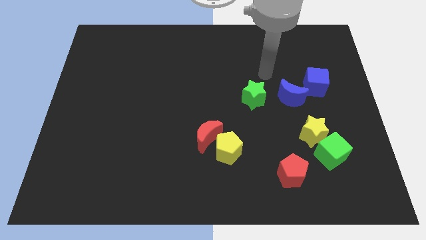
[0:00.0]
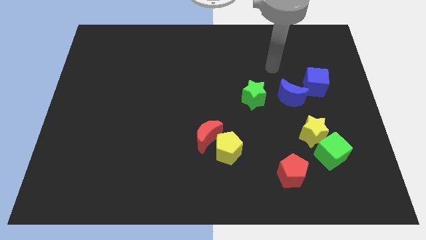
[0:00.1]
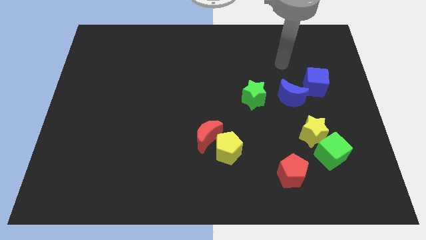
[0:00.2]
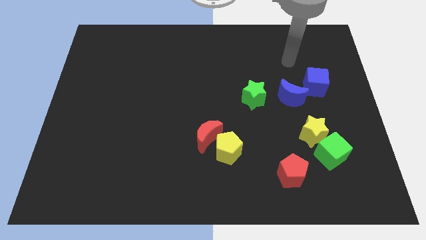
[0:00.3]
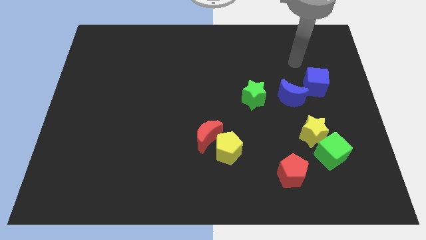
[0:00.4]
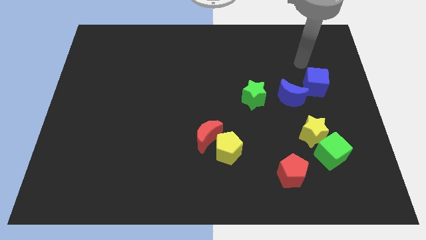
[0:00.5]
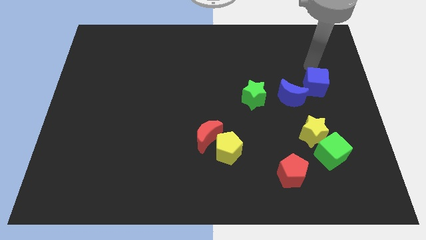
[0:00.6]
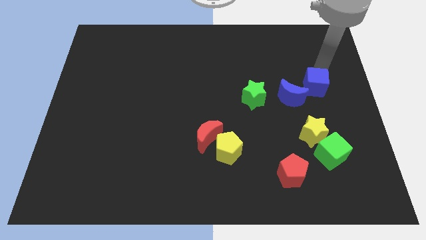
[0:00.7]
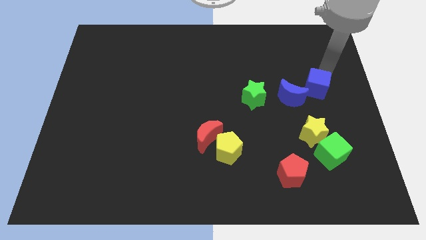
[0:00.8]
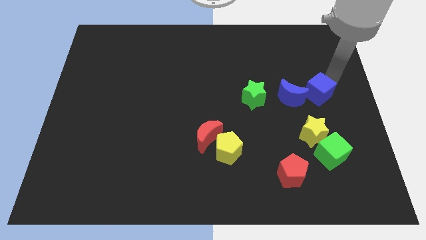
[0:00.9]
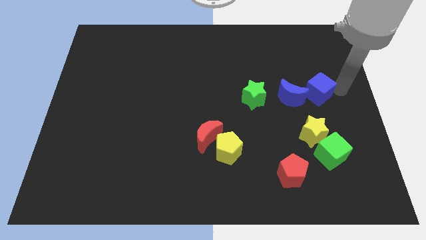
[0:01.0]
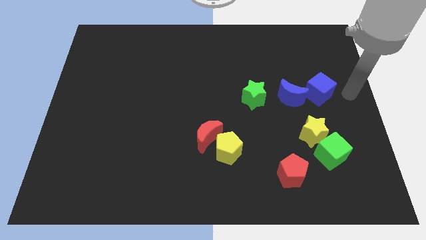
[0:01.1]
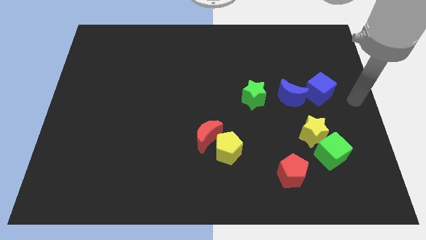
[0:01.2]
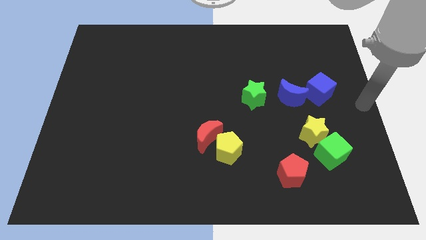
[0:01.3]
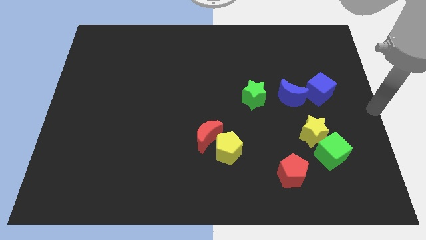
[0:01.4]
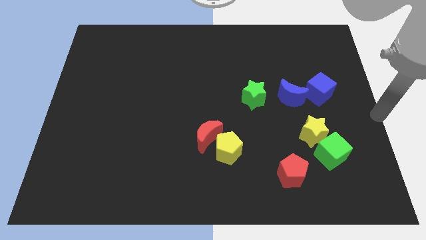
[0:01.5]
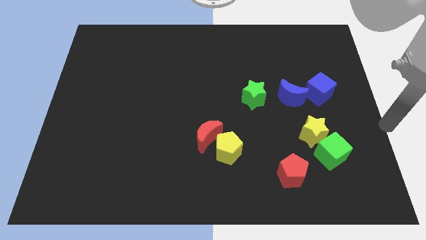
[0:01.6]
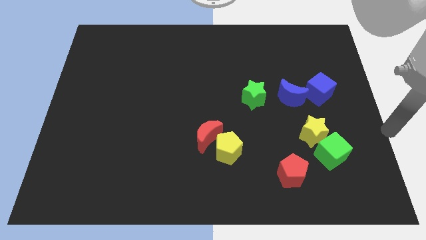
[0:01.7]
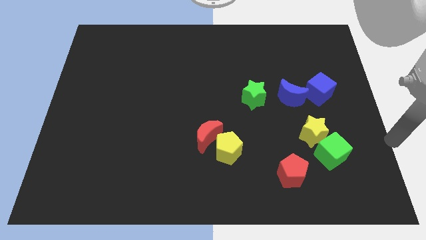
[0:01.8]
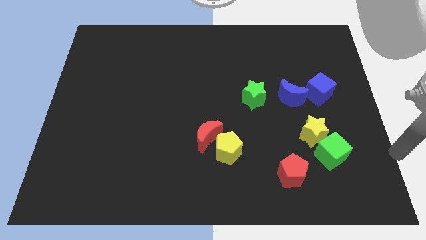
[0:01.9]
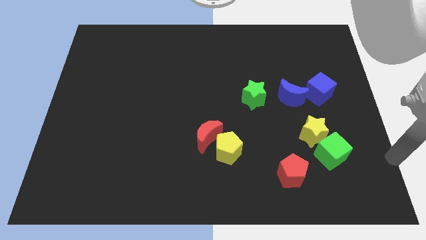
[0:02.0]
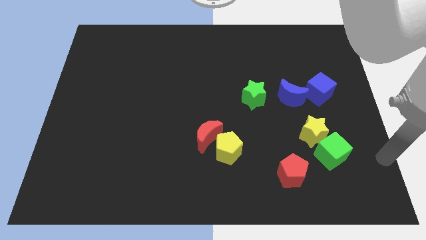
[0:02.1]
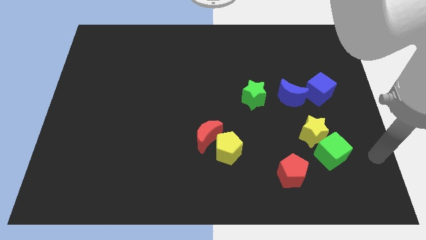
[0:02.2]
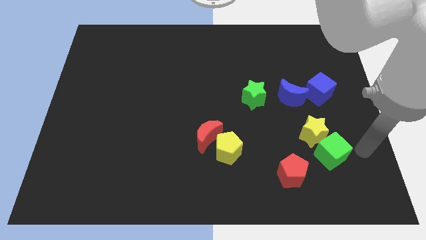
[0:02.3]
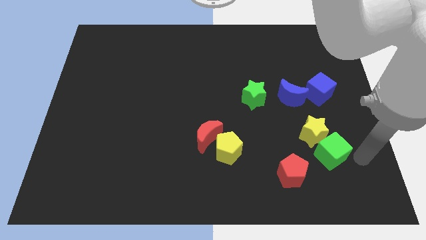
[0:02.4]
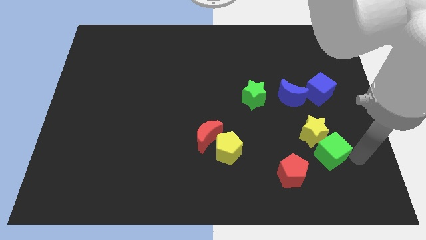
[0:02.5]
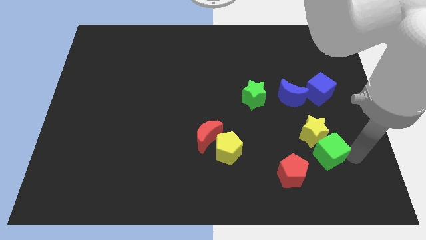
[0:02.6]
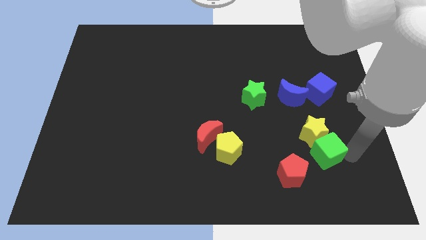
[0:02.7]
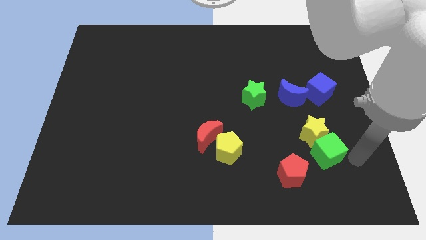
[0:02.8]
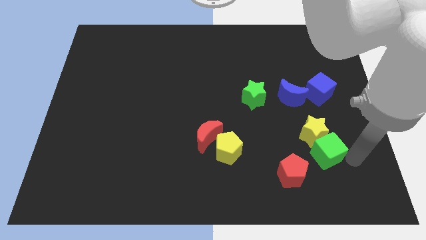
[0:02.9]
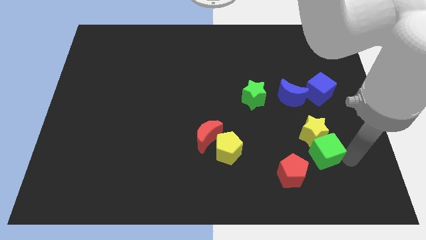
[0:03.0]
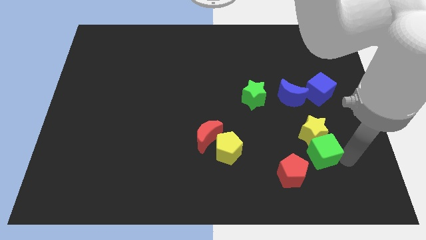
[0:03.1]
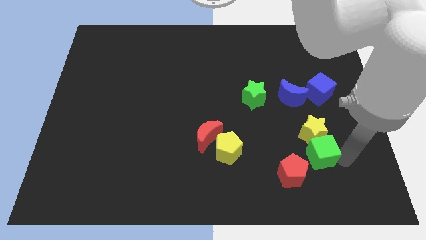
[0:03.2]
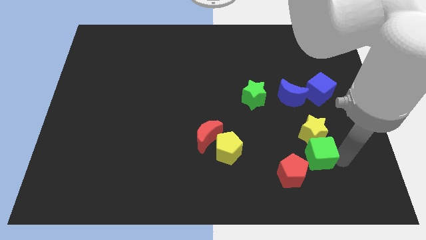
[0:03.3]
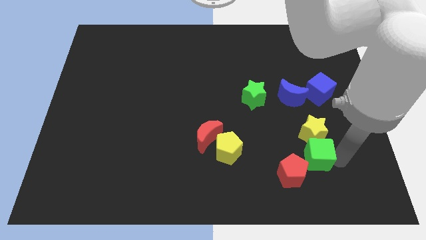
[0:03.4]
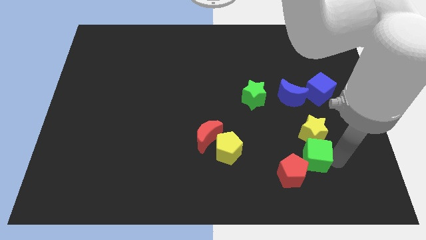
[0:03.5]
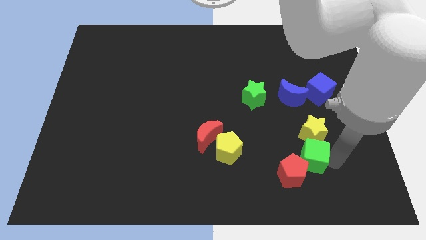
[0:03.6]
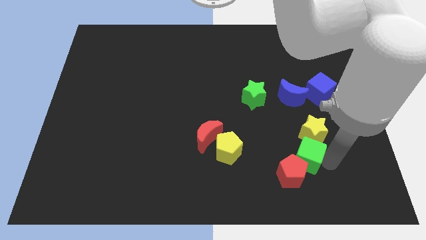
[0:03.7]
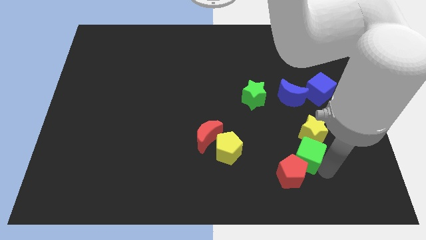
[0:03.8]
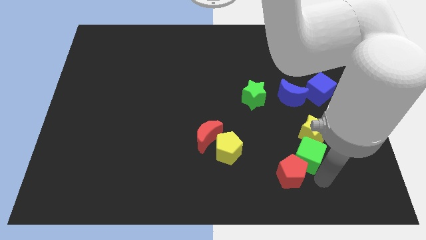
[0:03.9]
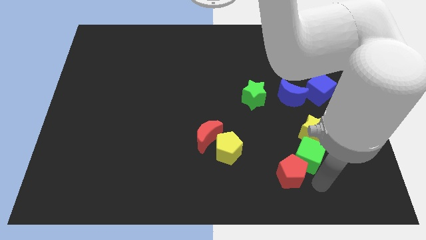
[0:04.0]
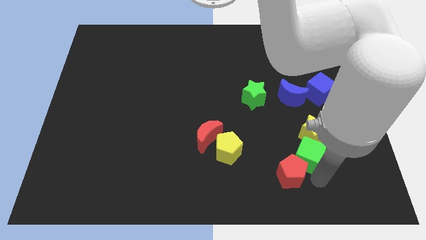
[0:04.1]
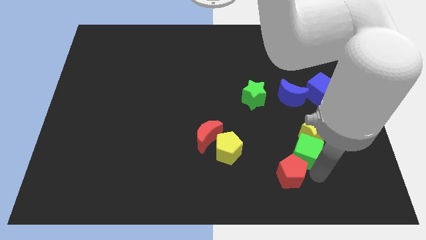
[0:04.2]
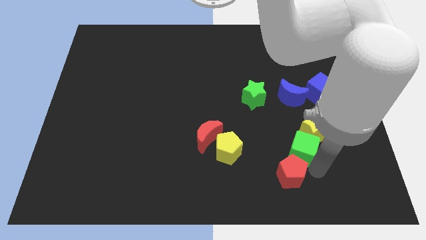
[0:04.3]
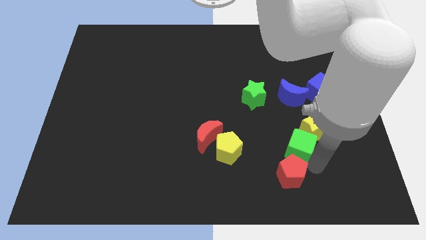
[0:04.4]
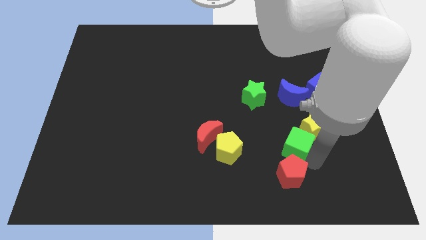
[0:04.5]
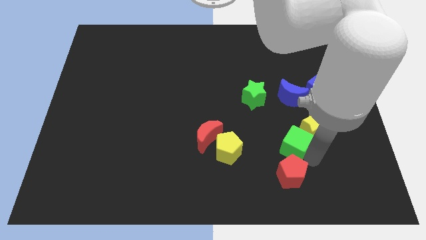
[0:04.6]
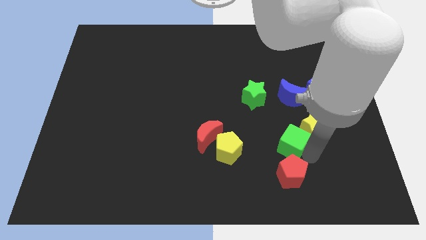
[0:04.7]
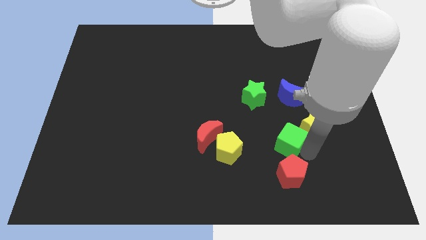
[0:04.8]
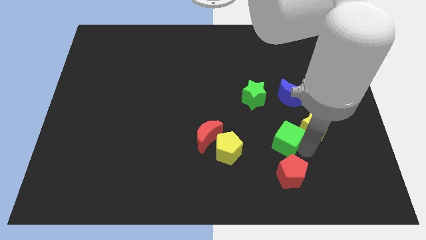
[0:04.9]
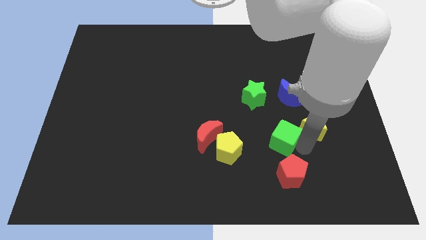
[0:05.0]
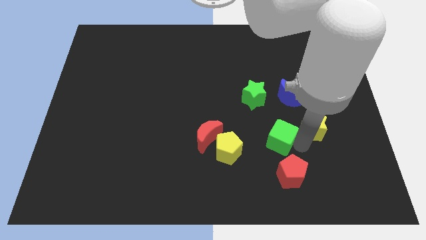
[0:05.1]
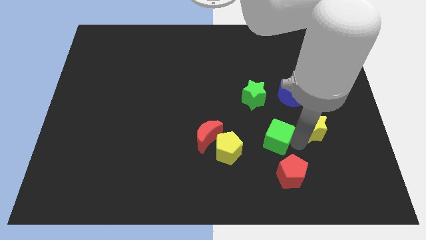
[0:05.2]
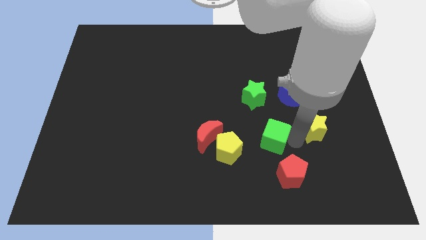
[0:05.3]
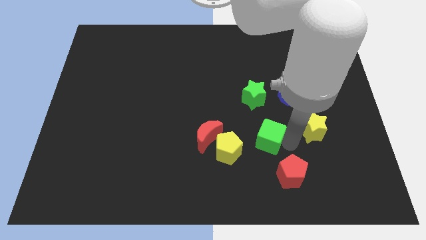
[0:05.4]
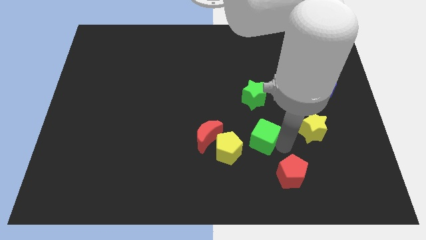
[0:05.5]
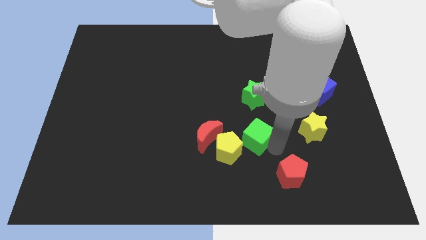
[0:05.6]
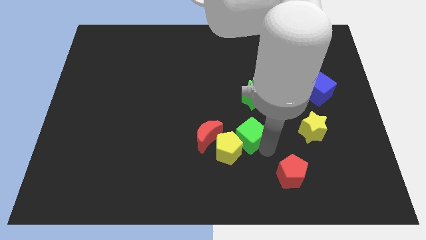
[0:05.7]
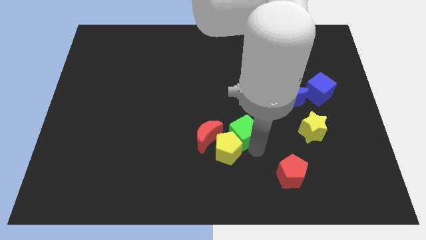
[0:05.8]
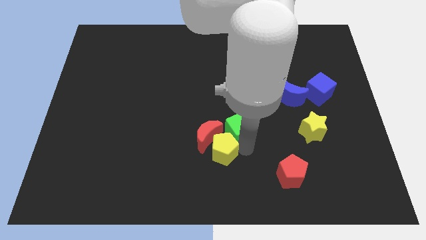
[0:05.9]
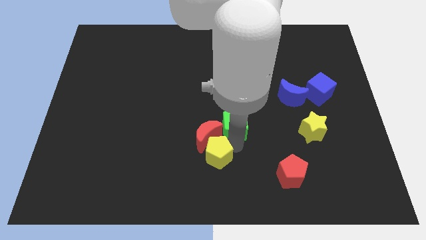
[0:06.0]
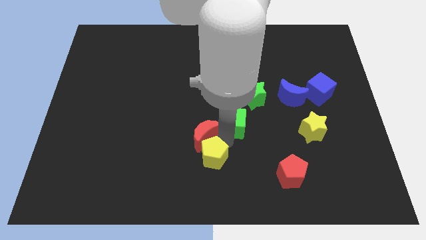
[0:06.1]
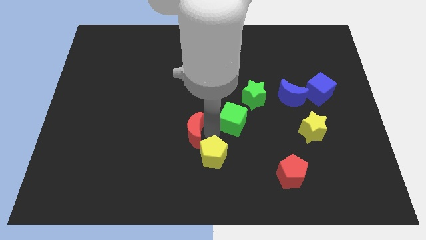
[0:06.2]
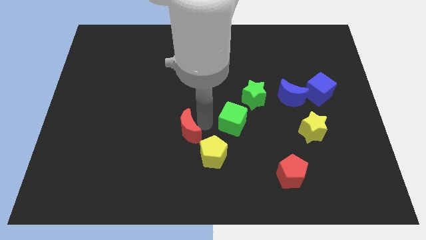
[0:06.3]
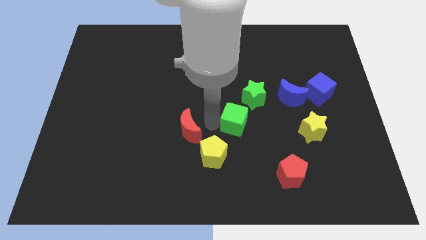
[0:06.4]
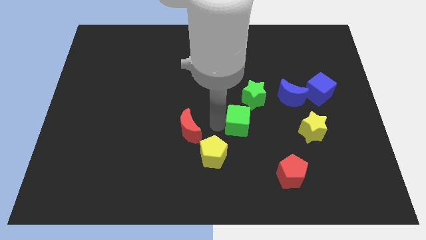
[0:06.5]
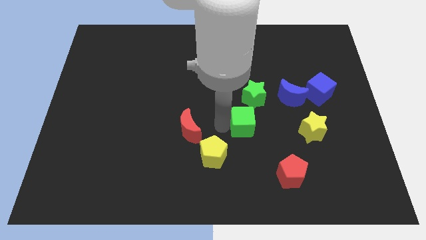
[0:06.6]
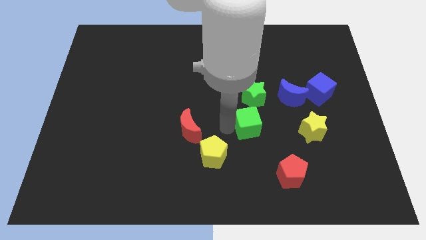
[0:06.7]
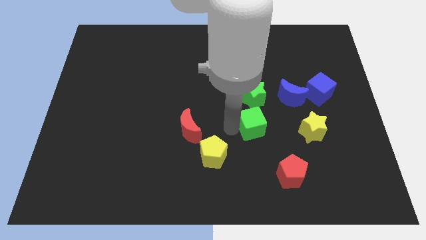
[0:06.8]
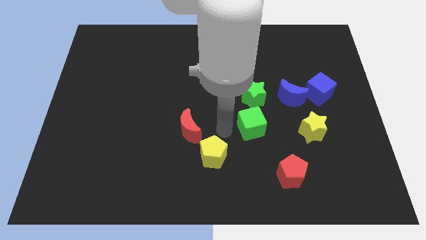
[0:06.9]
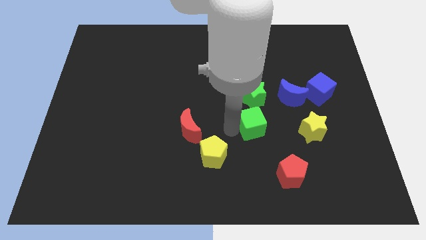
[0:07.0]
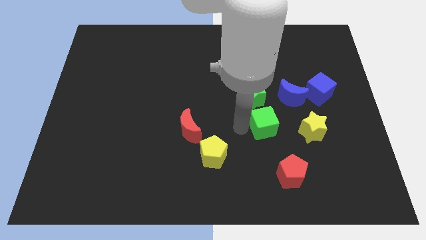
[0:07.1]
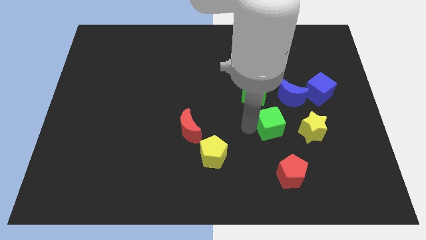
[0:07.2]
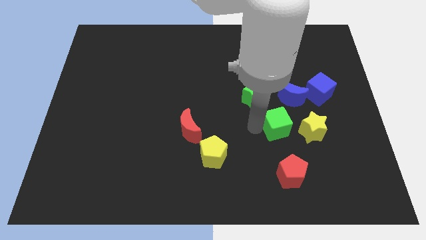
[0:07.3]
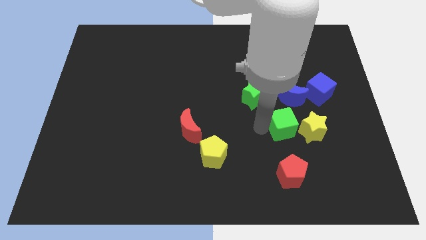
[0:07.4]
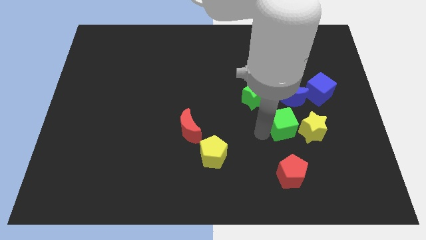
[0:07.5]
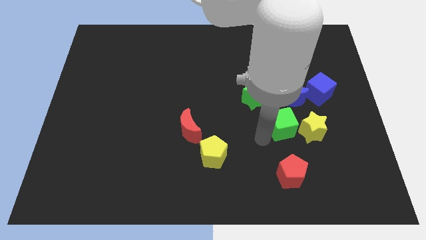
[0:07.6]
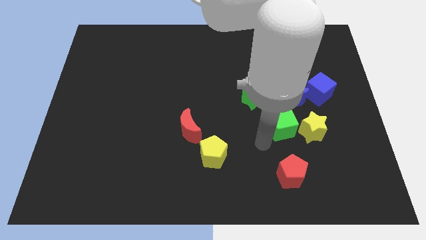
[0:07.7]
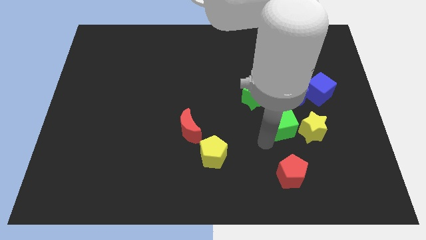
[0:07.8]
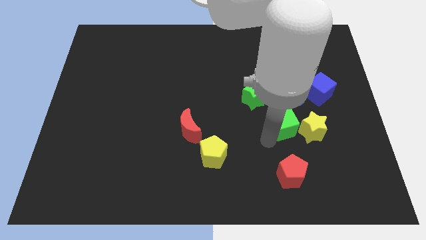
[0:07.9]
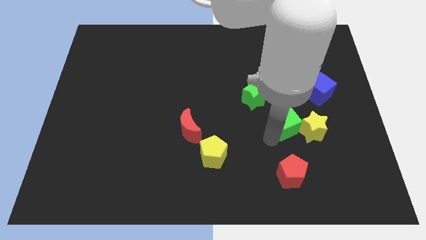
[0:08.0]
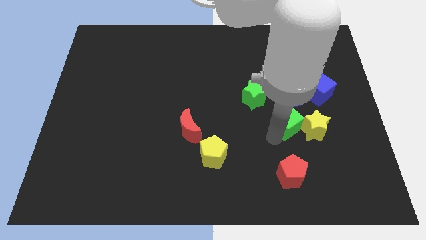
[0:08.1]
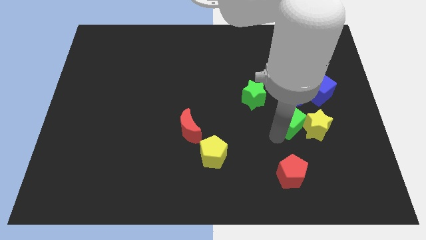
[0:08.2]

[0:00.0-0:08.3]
slide the green cube to the bottom left of the blue cube

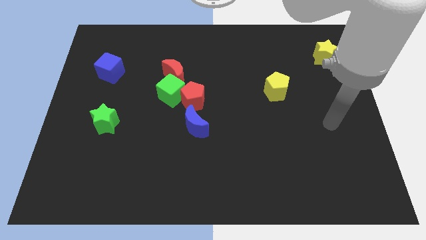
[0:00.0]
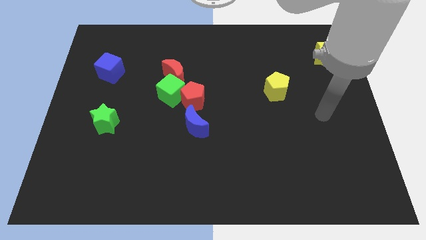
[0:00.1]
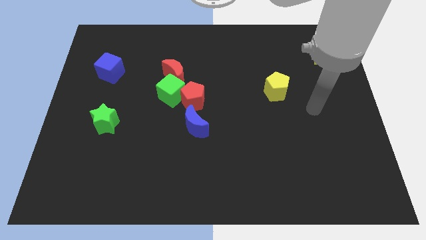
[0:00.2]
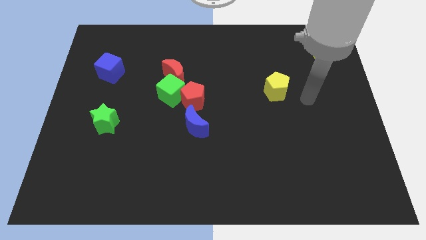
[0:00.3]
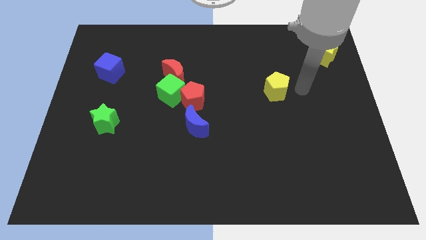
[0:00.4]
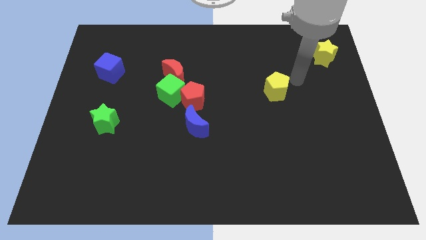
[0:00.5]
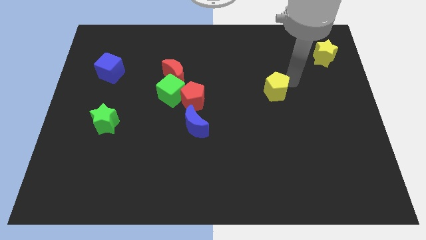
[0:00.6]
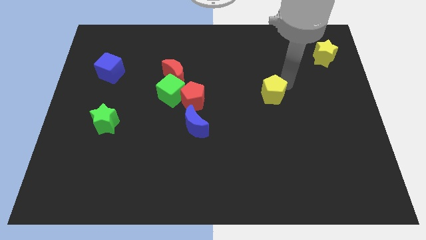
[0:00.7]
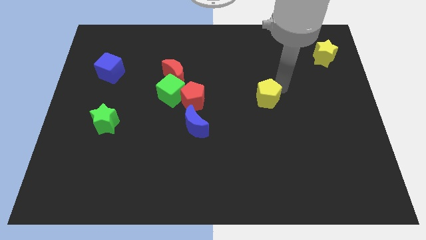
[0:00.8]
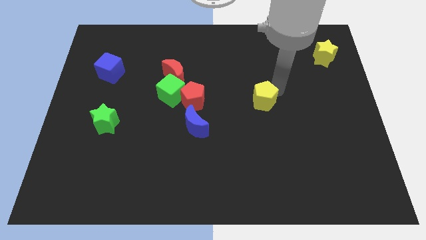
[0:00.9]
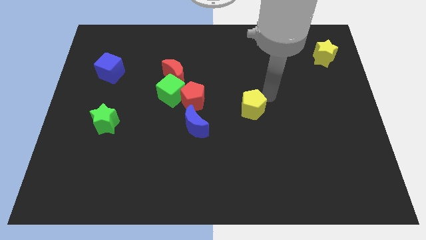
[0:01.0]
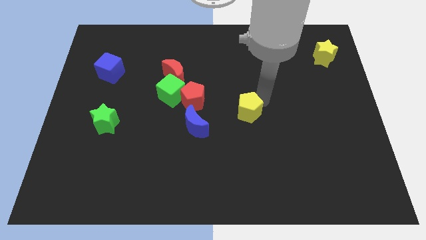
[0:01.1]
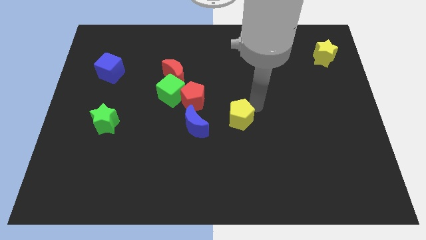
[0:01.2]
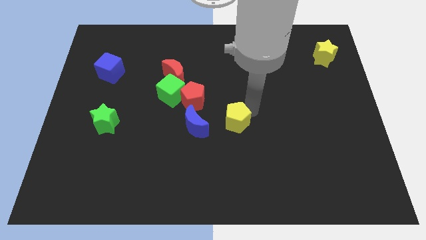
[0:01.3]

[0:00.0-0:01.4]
put the yellow pentagon to the bottom right side of the red pentagon
